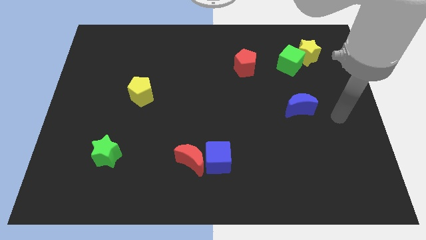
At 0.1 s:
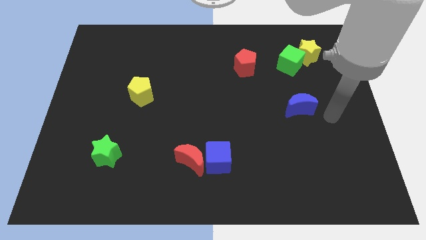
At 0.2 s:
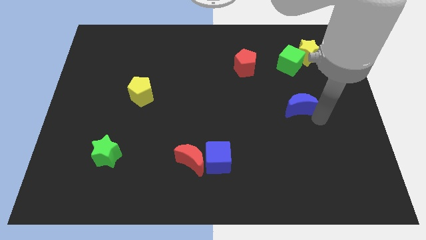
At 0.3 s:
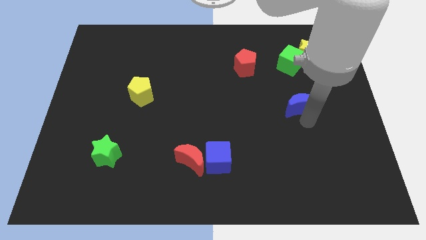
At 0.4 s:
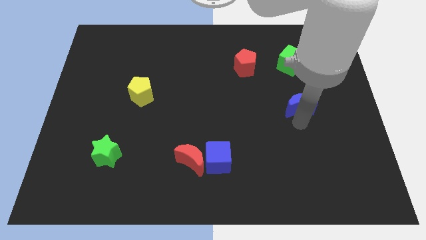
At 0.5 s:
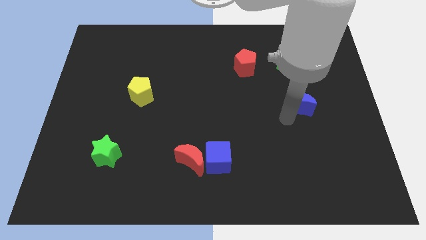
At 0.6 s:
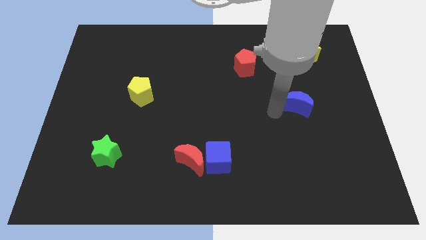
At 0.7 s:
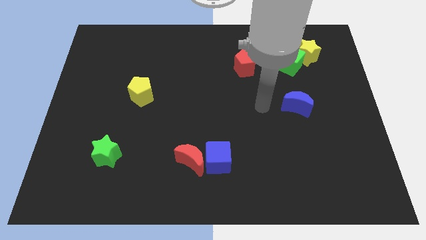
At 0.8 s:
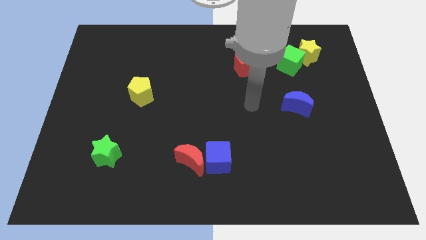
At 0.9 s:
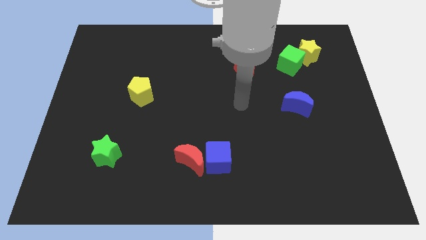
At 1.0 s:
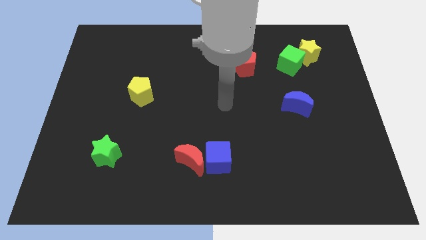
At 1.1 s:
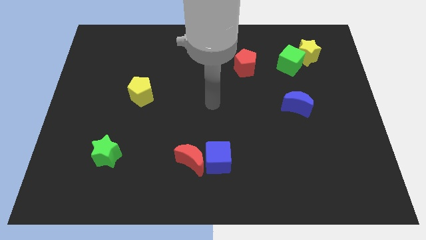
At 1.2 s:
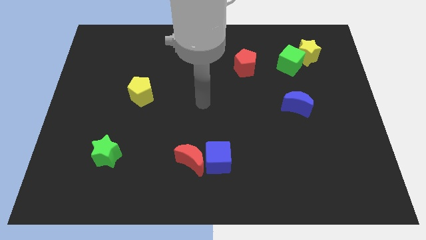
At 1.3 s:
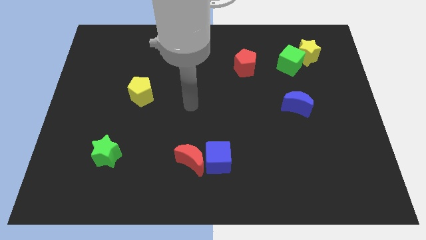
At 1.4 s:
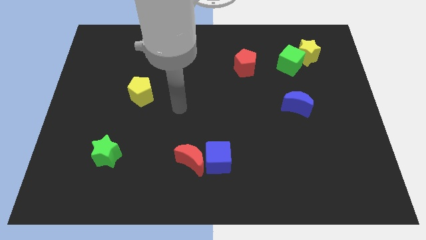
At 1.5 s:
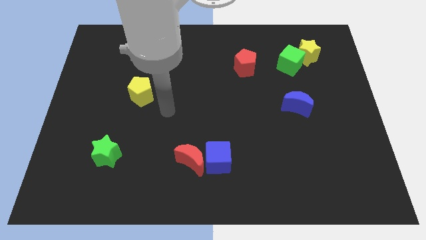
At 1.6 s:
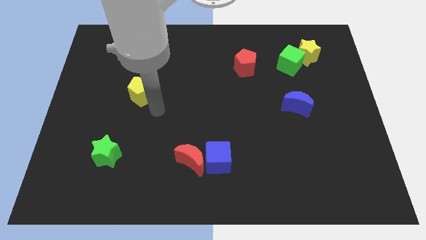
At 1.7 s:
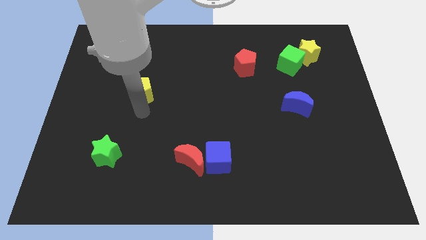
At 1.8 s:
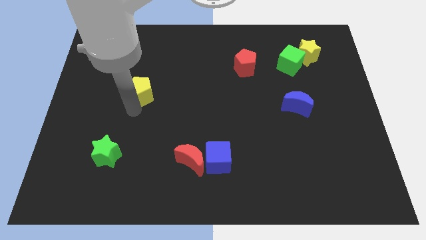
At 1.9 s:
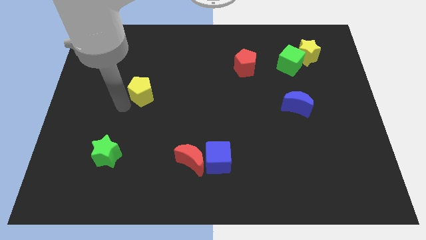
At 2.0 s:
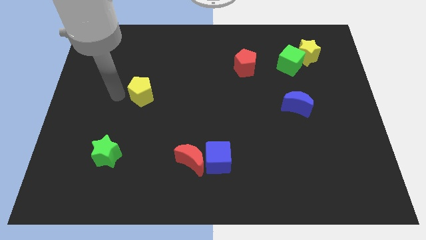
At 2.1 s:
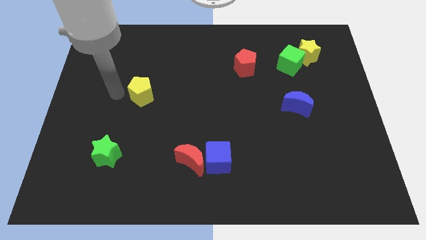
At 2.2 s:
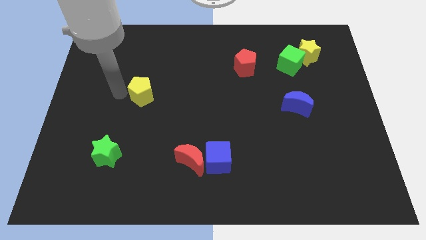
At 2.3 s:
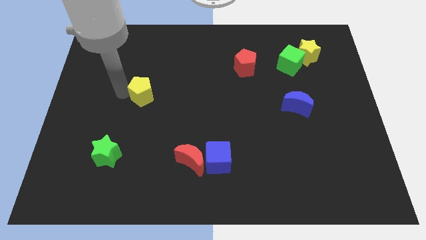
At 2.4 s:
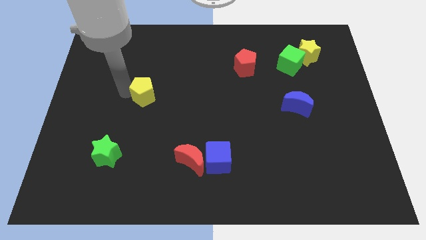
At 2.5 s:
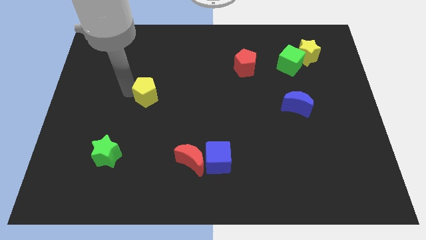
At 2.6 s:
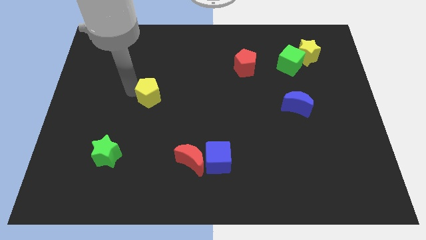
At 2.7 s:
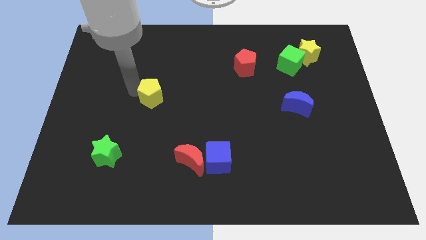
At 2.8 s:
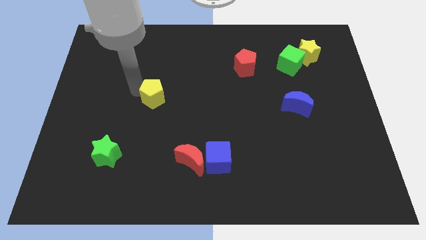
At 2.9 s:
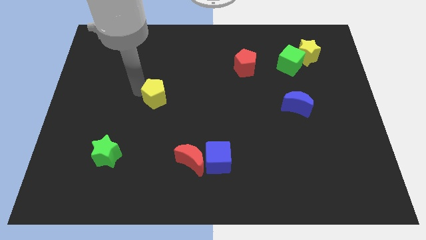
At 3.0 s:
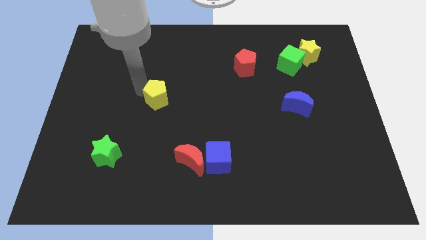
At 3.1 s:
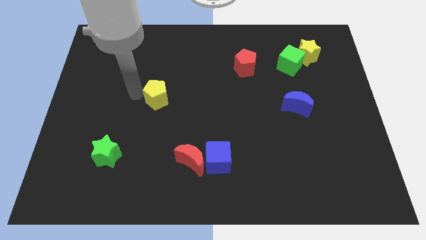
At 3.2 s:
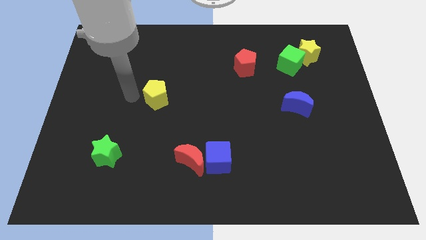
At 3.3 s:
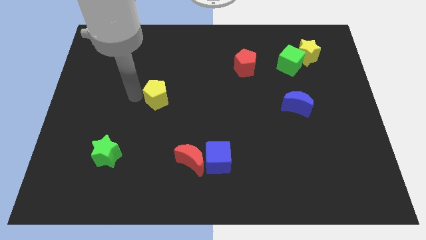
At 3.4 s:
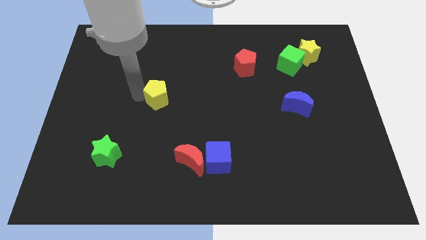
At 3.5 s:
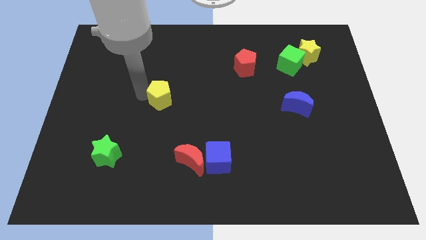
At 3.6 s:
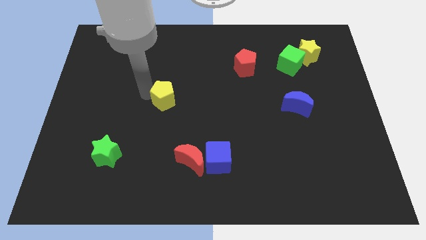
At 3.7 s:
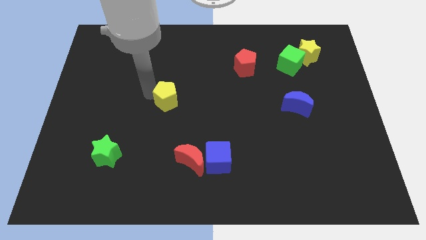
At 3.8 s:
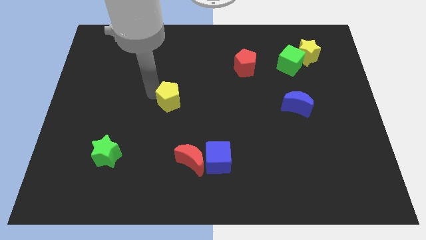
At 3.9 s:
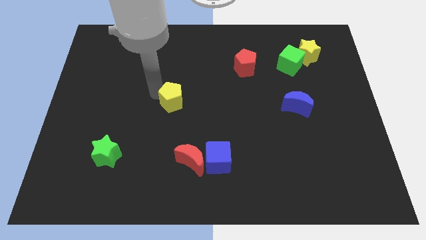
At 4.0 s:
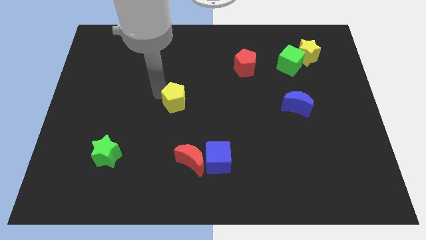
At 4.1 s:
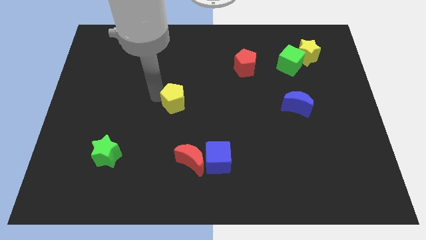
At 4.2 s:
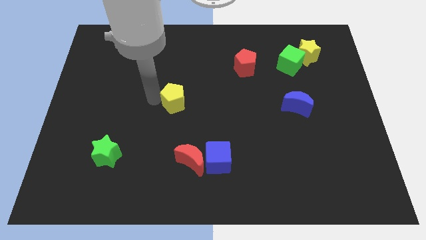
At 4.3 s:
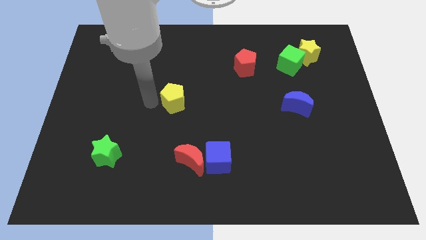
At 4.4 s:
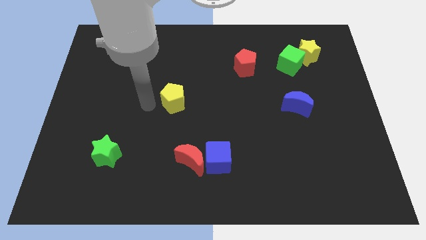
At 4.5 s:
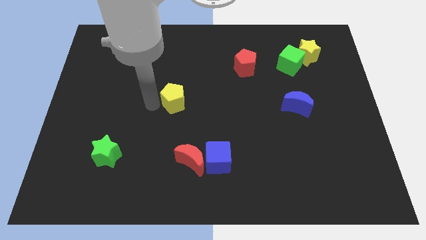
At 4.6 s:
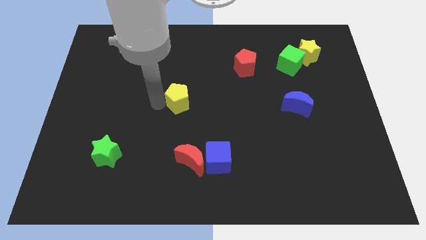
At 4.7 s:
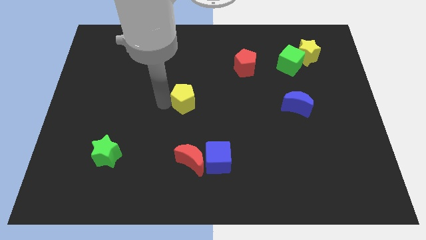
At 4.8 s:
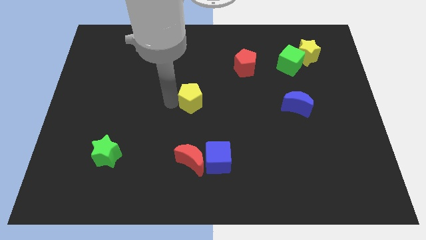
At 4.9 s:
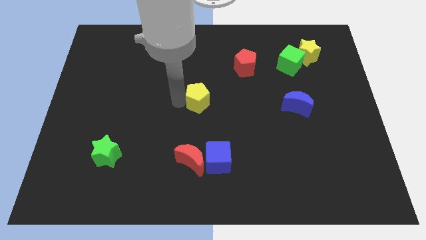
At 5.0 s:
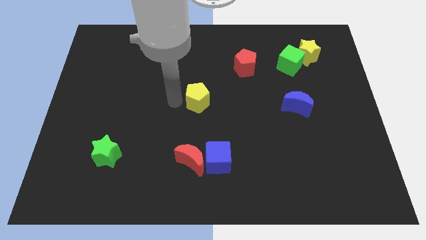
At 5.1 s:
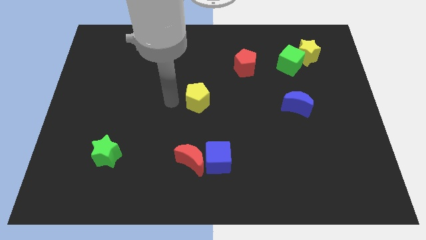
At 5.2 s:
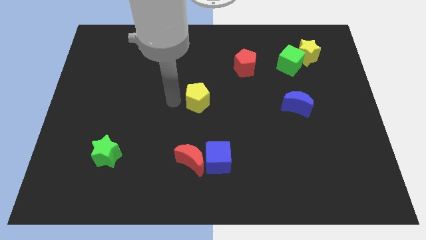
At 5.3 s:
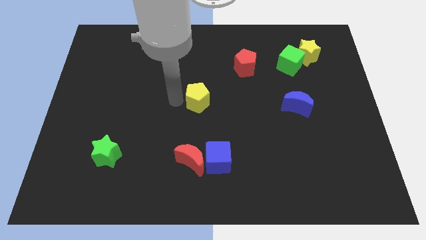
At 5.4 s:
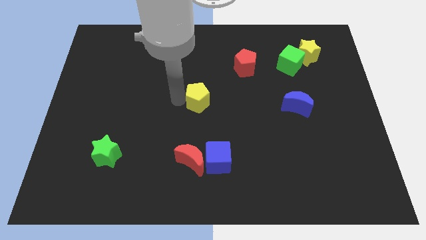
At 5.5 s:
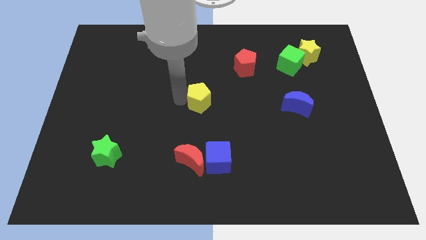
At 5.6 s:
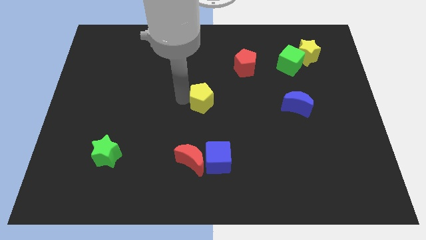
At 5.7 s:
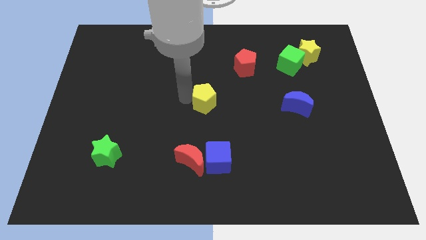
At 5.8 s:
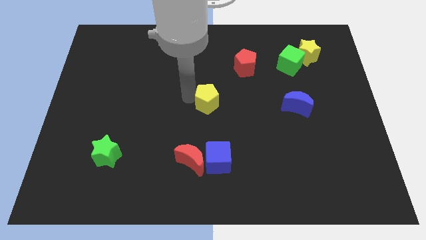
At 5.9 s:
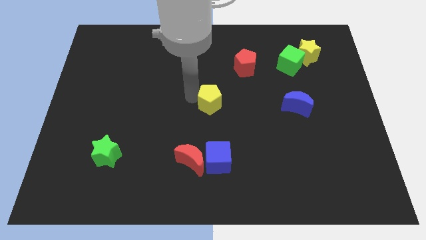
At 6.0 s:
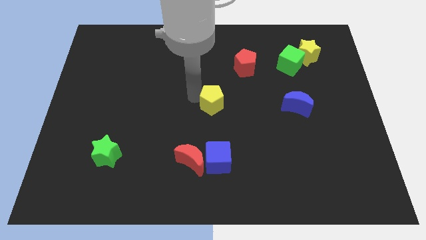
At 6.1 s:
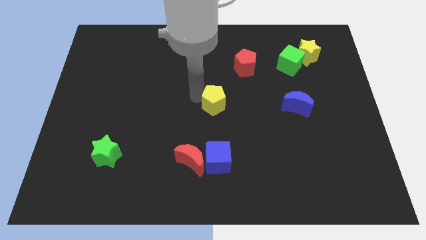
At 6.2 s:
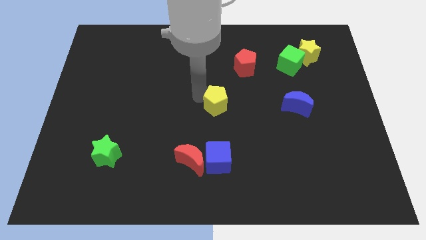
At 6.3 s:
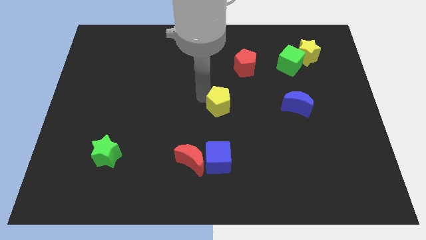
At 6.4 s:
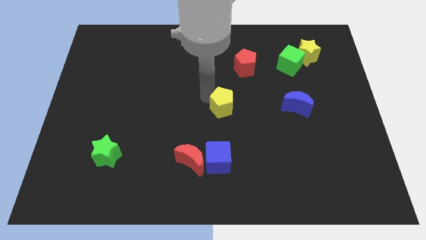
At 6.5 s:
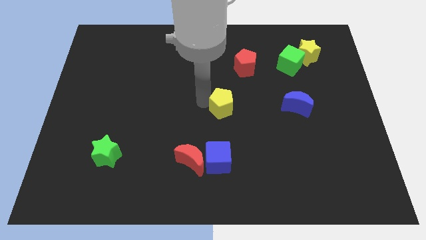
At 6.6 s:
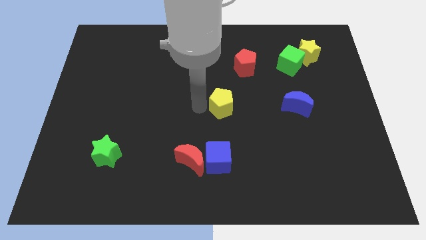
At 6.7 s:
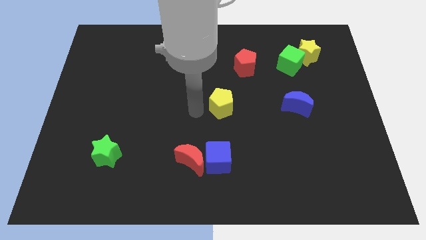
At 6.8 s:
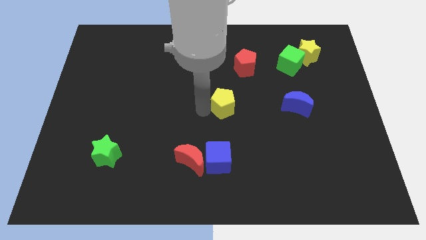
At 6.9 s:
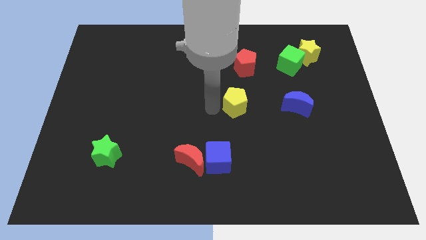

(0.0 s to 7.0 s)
move the yellow pentagon right

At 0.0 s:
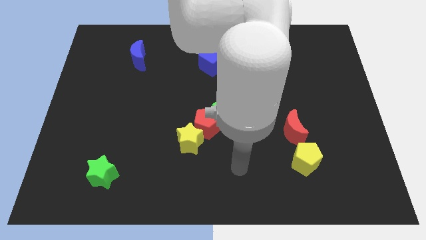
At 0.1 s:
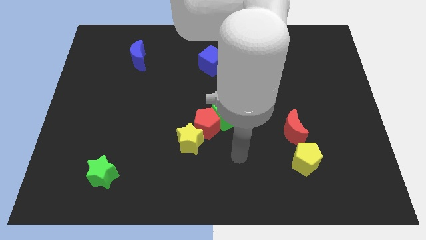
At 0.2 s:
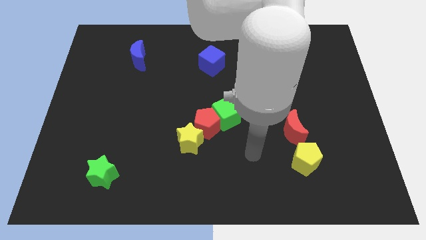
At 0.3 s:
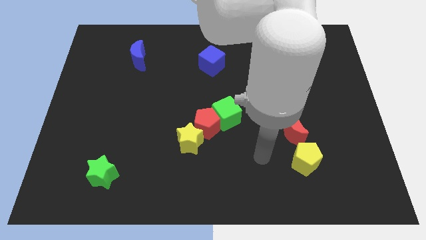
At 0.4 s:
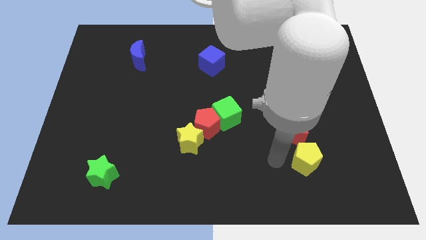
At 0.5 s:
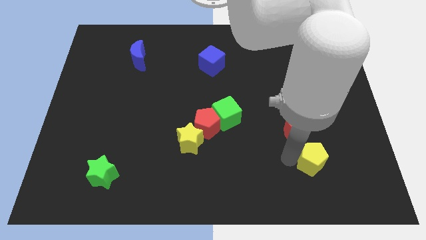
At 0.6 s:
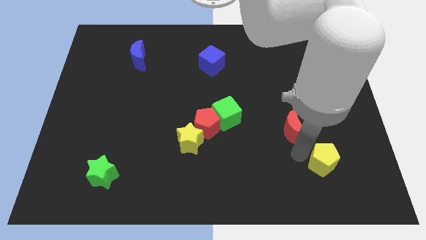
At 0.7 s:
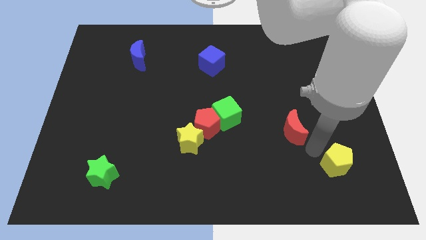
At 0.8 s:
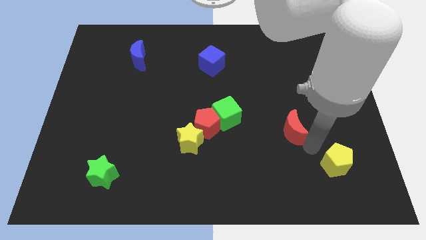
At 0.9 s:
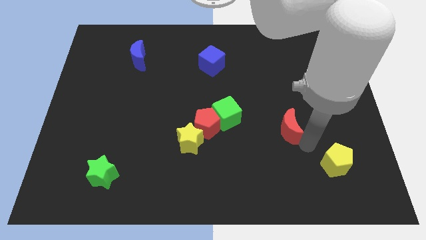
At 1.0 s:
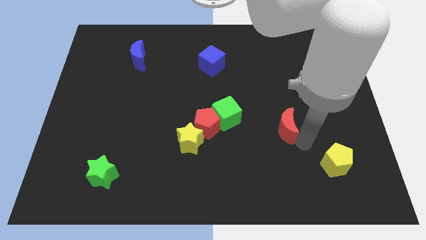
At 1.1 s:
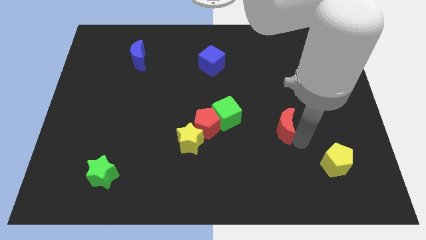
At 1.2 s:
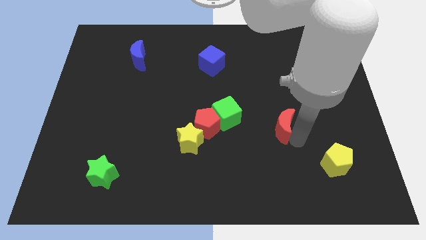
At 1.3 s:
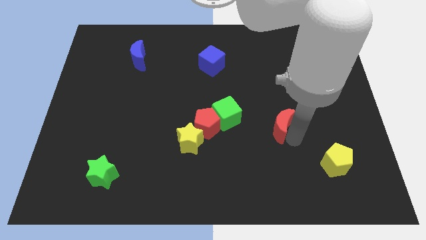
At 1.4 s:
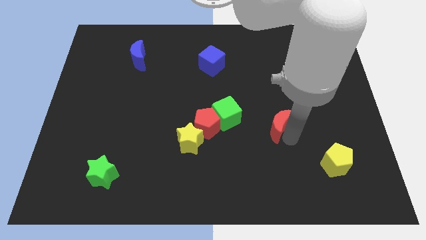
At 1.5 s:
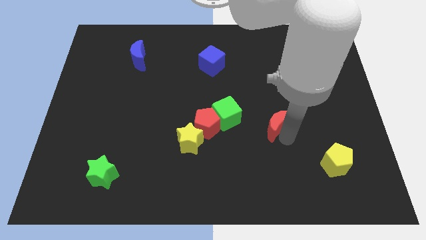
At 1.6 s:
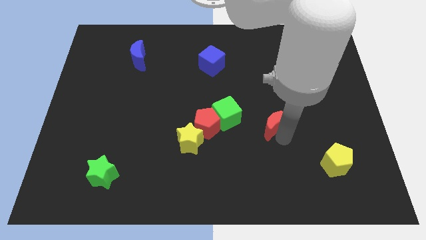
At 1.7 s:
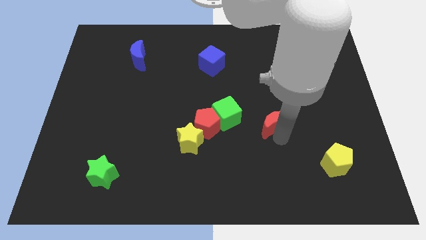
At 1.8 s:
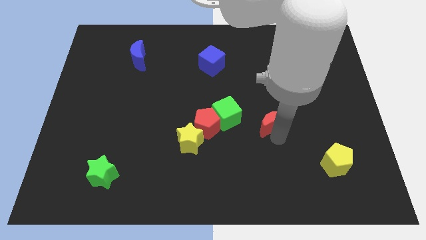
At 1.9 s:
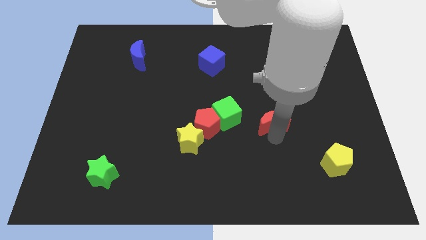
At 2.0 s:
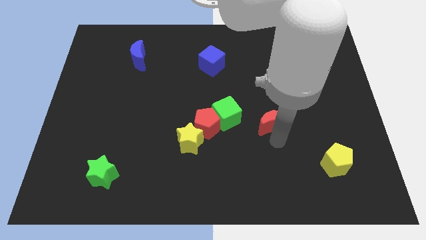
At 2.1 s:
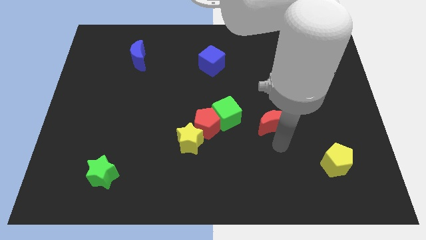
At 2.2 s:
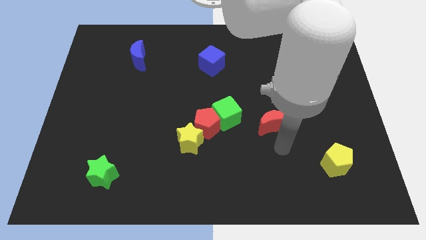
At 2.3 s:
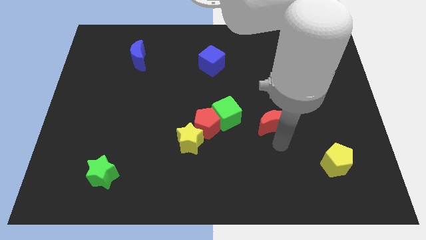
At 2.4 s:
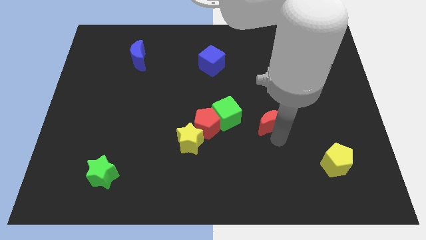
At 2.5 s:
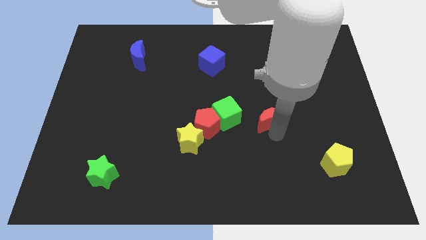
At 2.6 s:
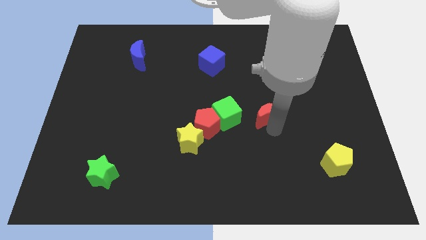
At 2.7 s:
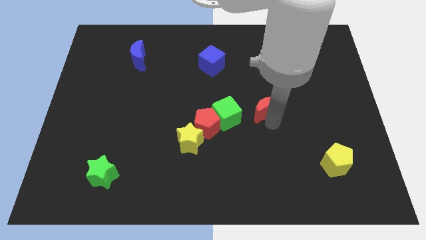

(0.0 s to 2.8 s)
move the red moon upwards and then left a little
